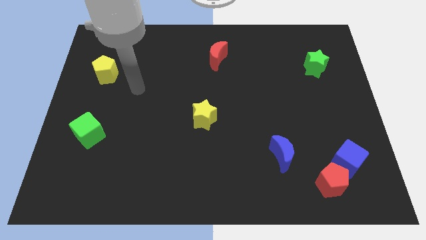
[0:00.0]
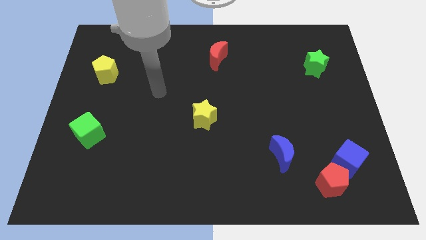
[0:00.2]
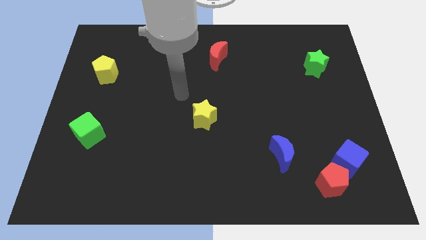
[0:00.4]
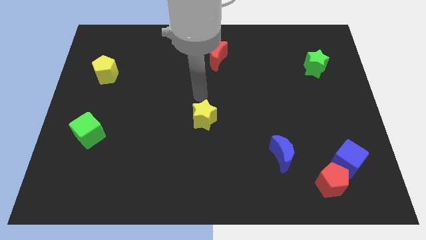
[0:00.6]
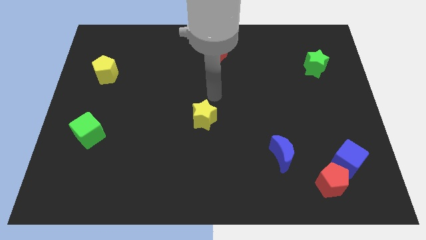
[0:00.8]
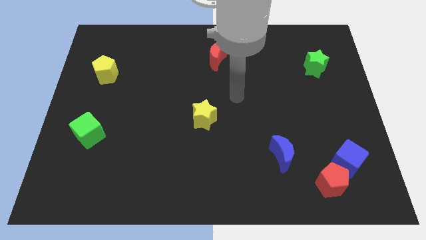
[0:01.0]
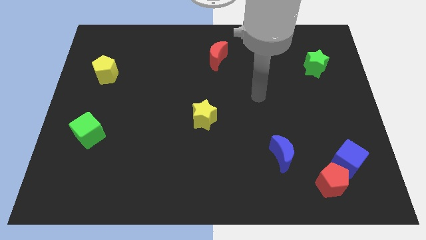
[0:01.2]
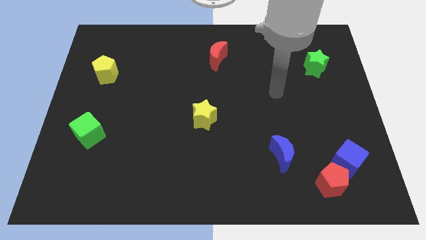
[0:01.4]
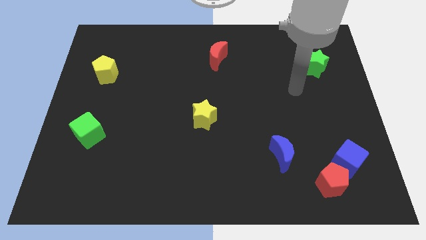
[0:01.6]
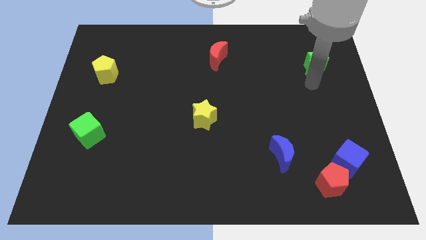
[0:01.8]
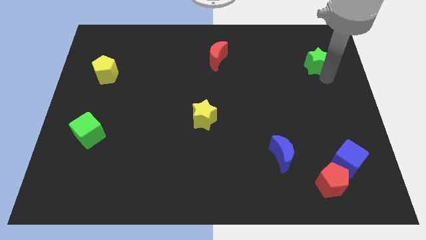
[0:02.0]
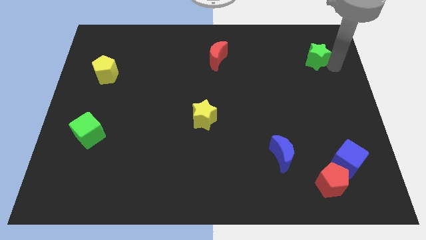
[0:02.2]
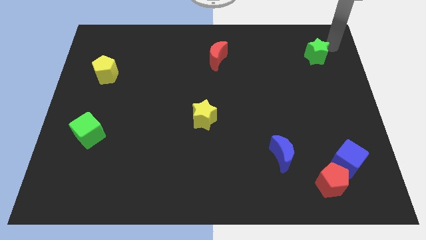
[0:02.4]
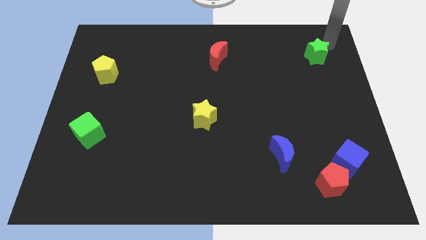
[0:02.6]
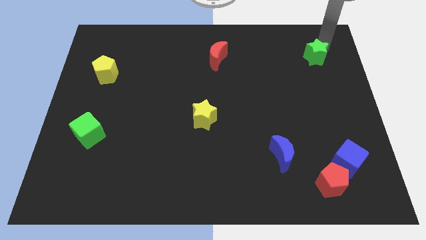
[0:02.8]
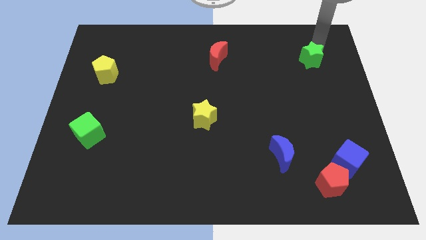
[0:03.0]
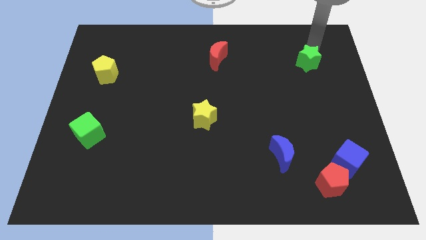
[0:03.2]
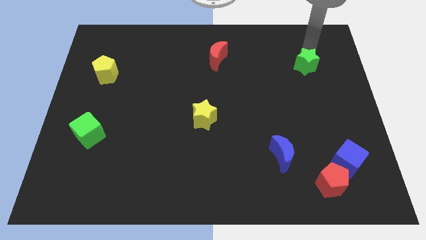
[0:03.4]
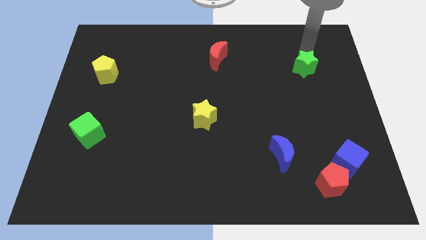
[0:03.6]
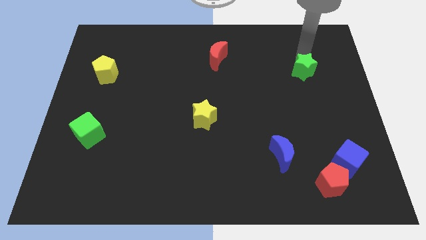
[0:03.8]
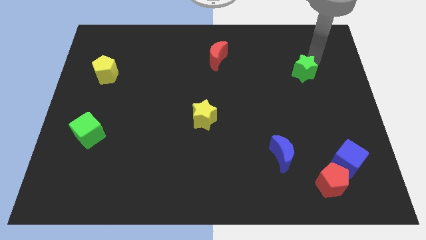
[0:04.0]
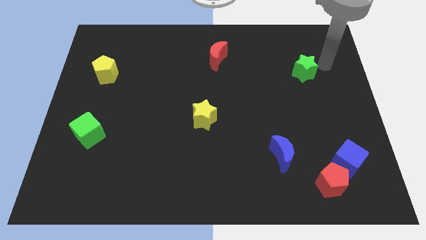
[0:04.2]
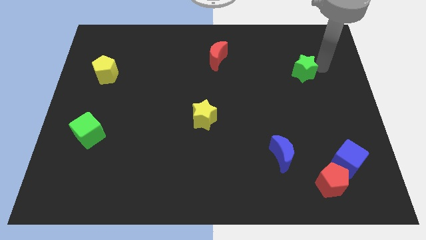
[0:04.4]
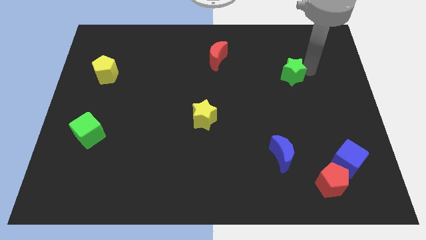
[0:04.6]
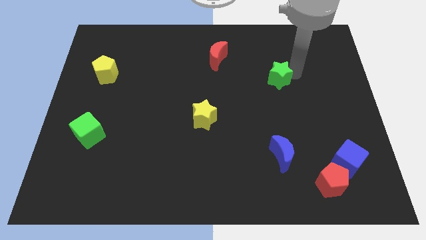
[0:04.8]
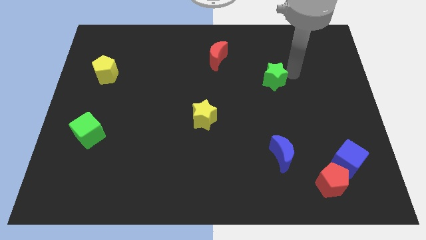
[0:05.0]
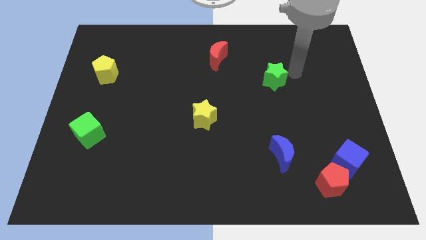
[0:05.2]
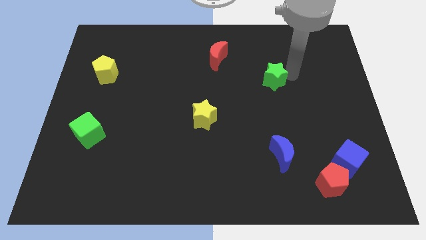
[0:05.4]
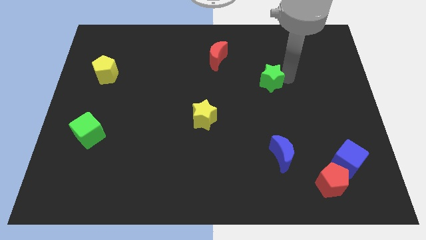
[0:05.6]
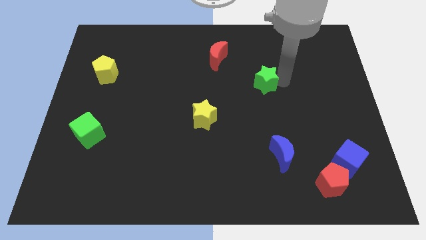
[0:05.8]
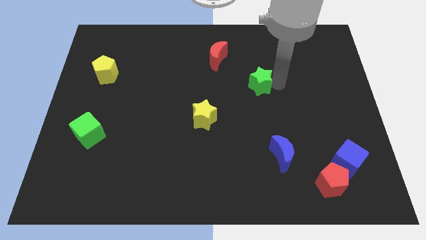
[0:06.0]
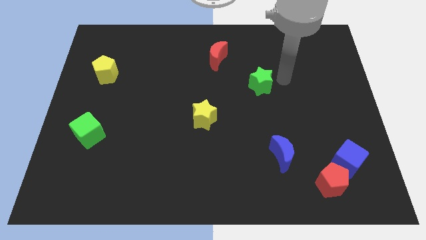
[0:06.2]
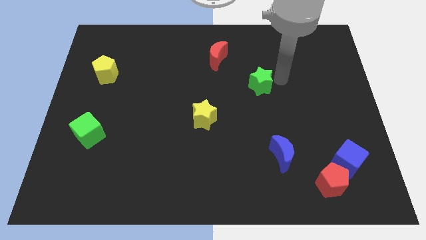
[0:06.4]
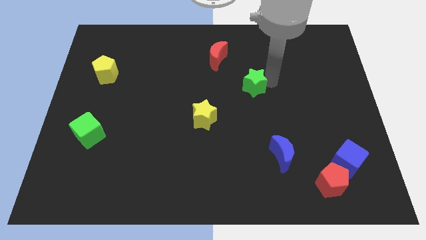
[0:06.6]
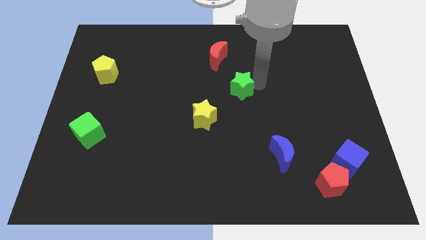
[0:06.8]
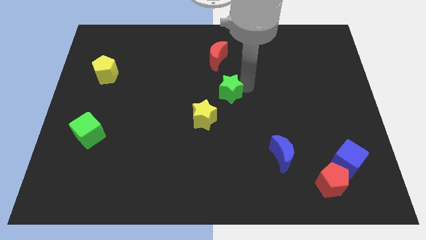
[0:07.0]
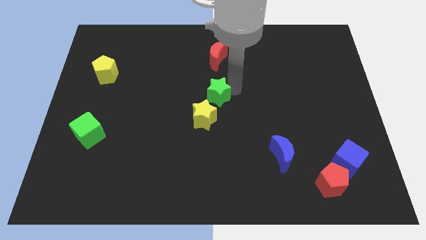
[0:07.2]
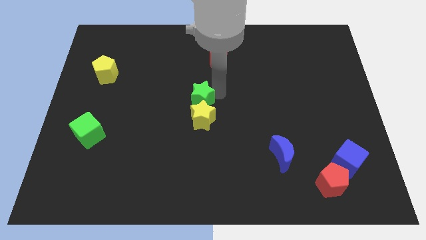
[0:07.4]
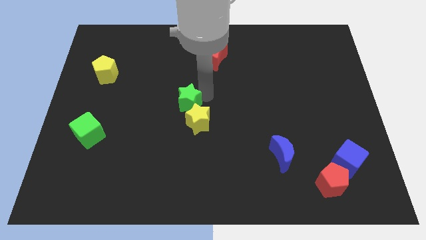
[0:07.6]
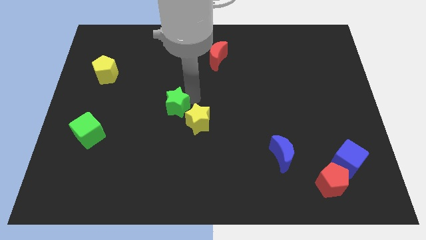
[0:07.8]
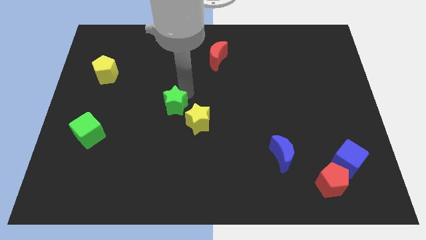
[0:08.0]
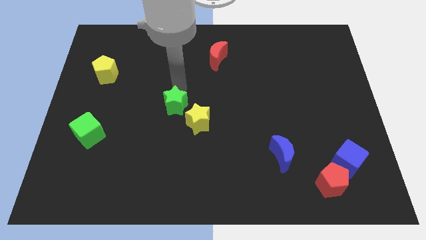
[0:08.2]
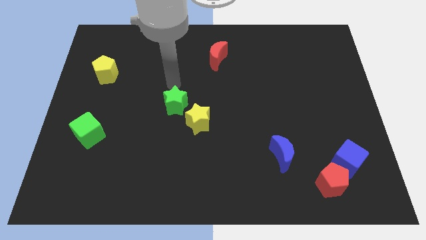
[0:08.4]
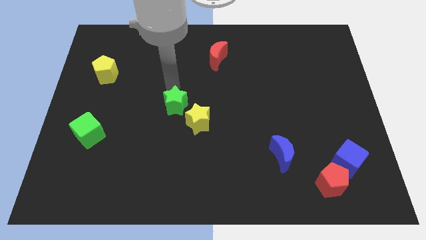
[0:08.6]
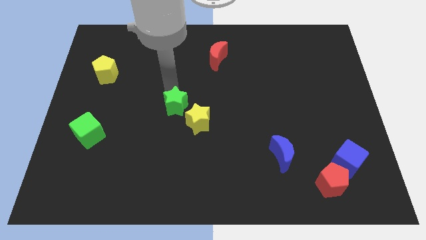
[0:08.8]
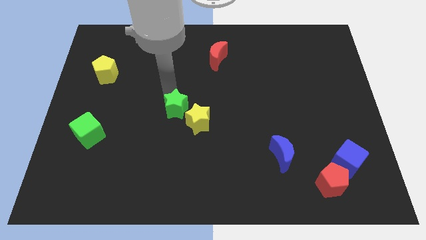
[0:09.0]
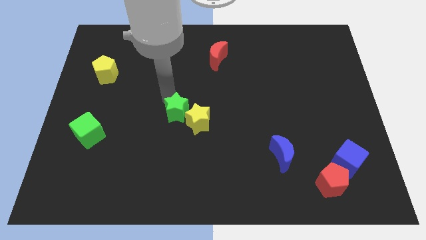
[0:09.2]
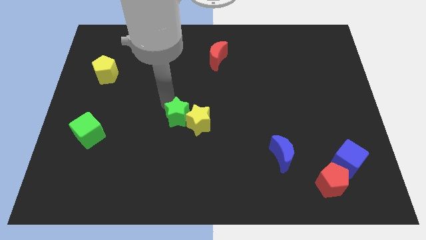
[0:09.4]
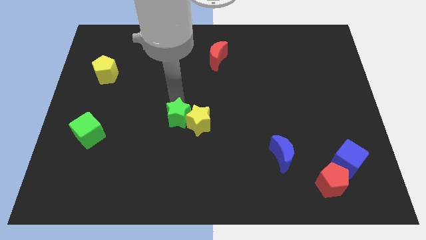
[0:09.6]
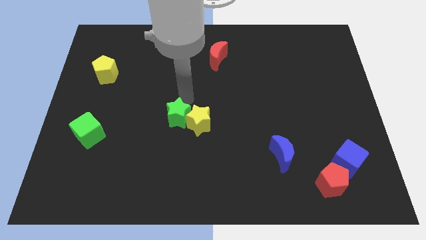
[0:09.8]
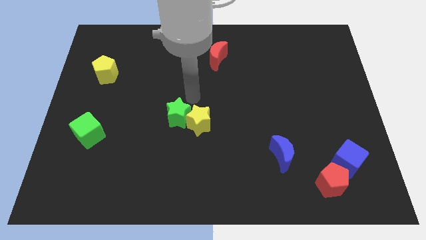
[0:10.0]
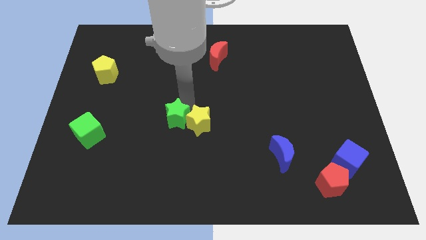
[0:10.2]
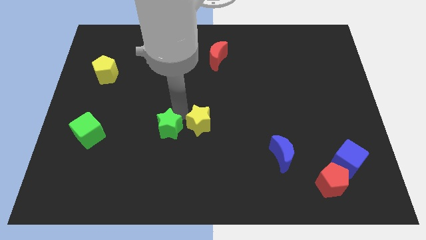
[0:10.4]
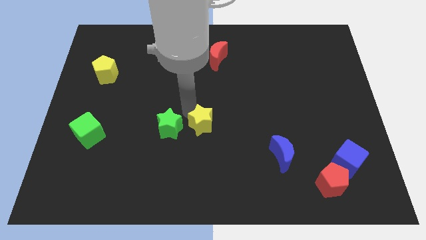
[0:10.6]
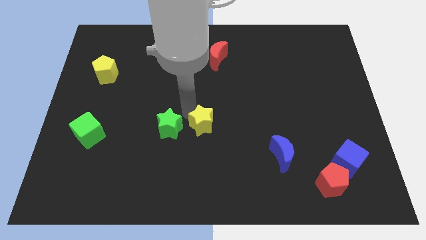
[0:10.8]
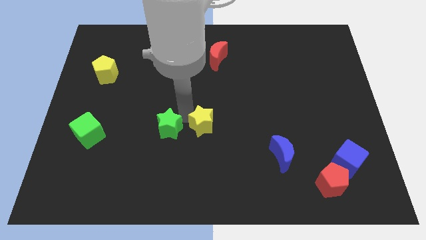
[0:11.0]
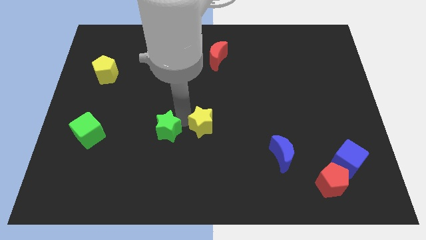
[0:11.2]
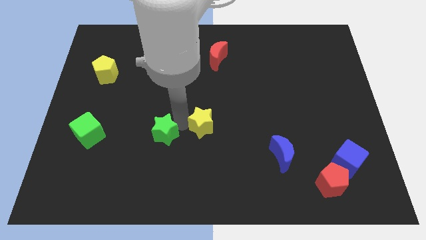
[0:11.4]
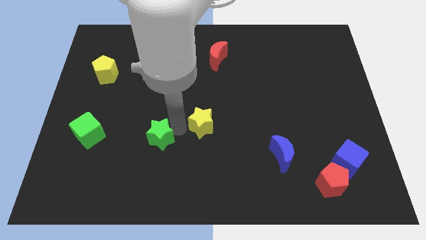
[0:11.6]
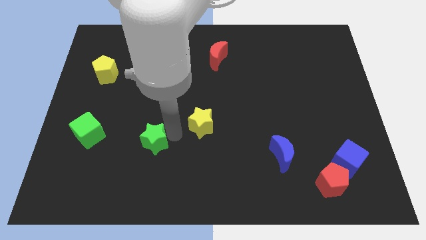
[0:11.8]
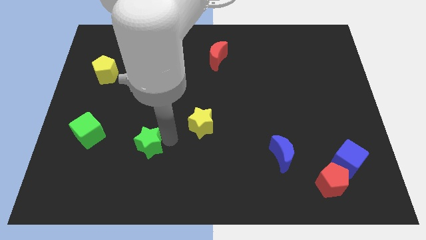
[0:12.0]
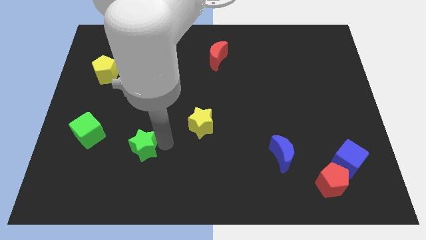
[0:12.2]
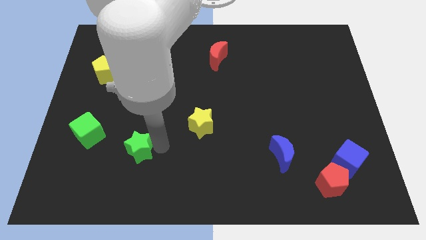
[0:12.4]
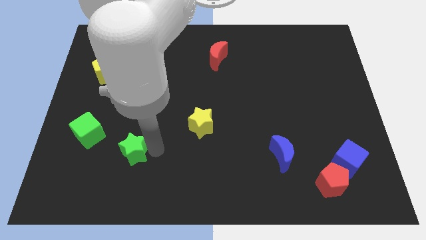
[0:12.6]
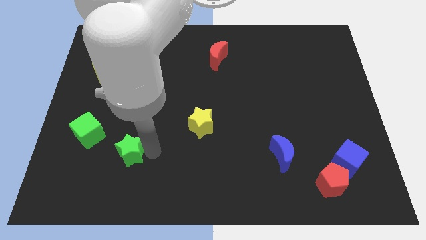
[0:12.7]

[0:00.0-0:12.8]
move the green star diagonally down and to the right of the green cube
